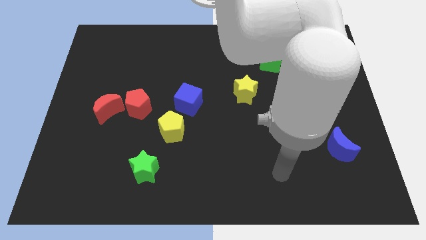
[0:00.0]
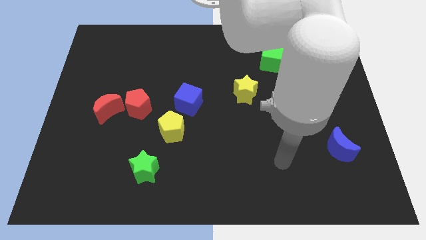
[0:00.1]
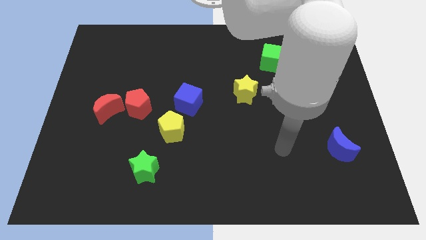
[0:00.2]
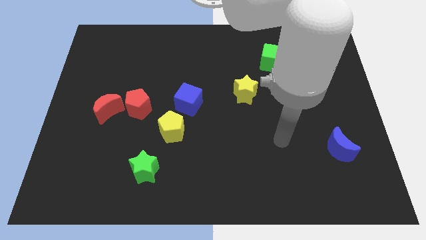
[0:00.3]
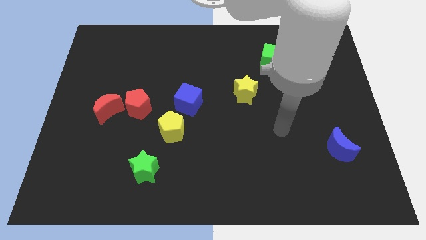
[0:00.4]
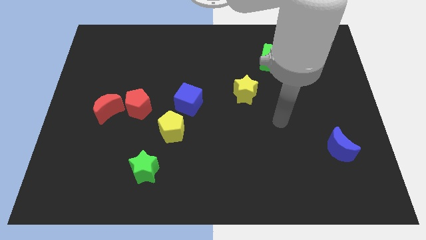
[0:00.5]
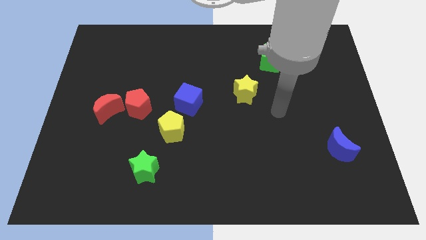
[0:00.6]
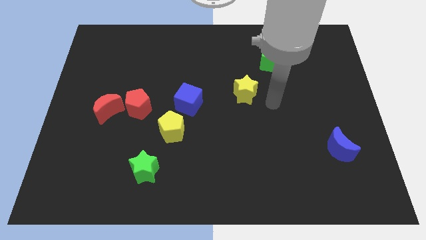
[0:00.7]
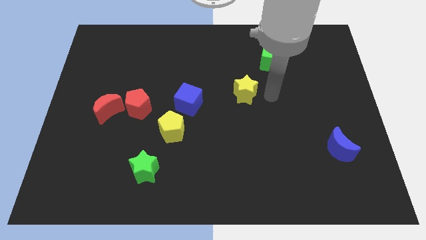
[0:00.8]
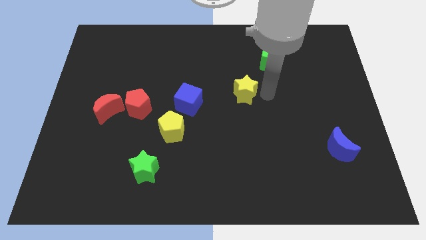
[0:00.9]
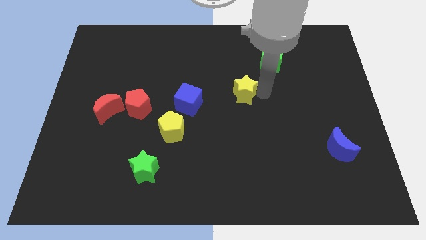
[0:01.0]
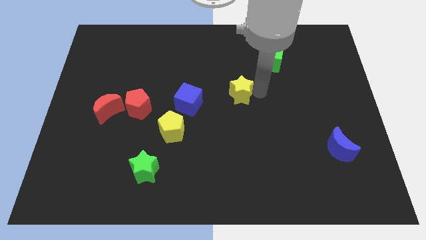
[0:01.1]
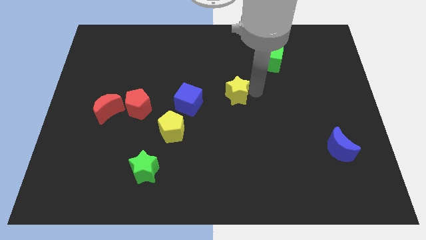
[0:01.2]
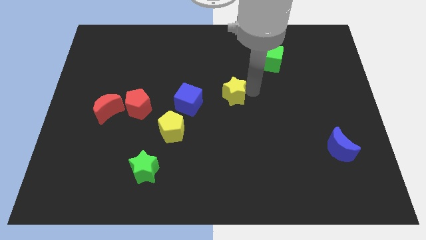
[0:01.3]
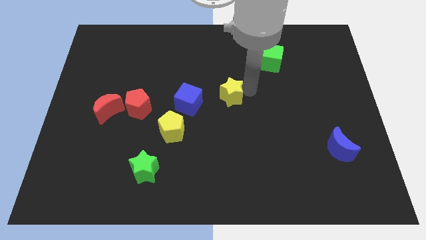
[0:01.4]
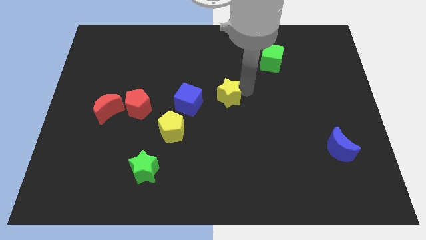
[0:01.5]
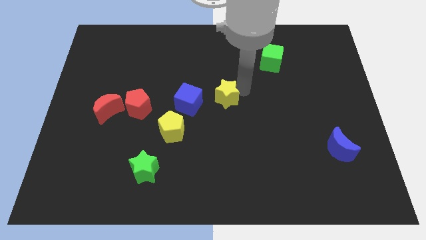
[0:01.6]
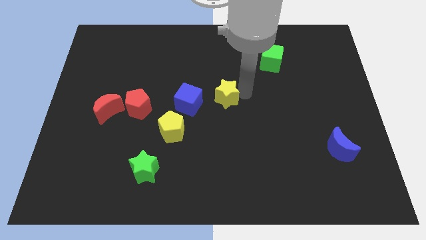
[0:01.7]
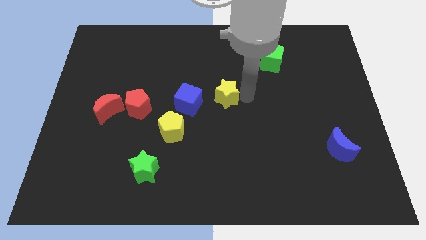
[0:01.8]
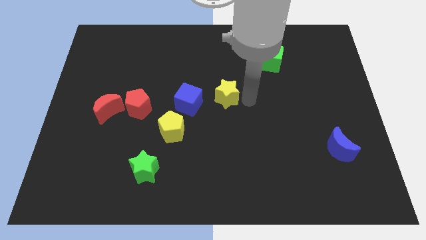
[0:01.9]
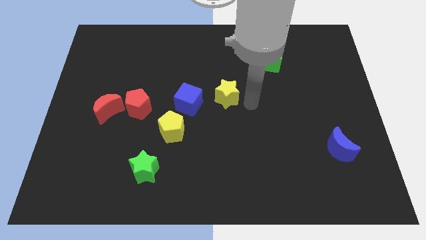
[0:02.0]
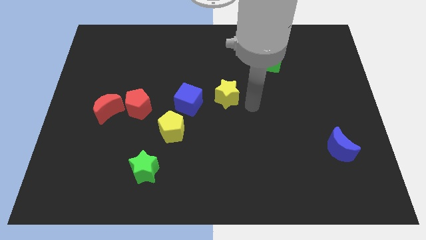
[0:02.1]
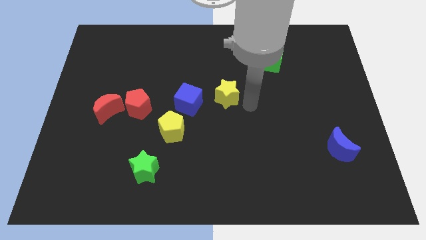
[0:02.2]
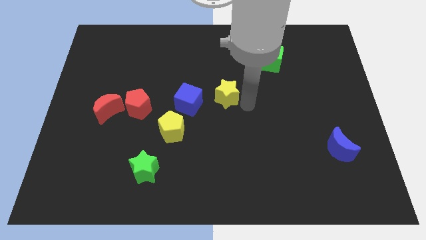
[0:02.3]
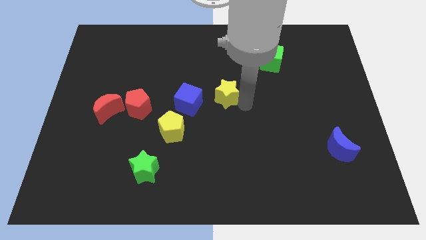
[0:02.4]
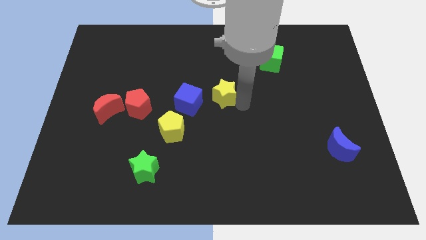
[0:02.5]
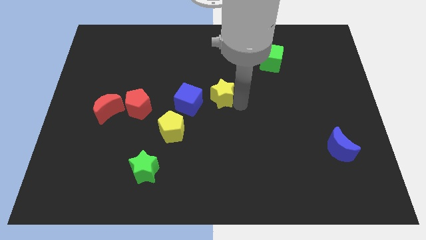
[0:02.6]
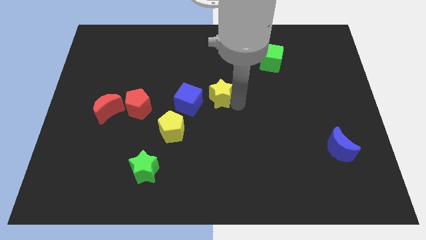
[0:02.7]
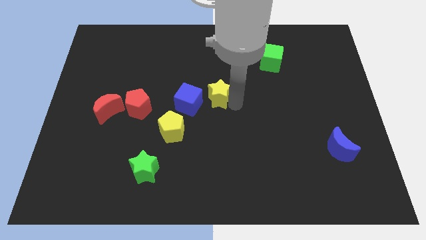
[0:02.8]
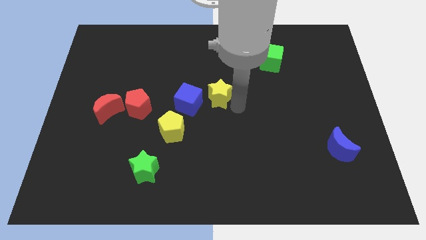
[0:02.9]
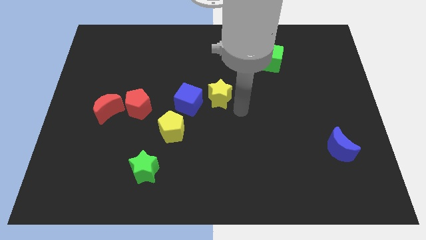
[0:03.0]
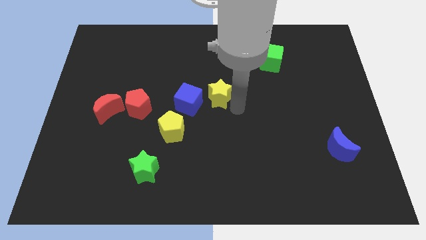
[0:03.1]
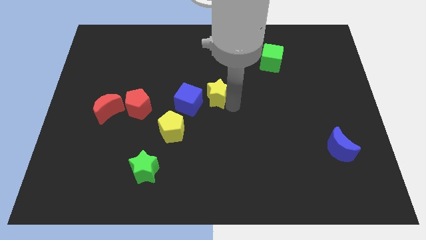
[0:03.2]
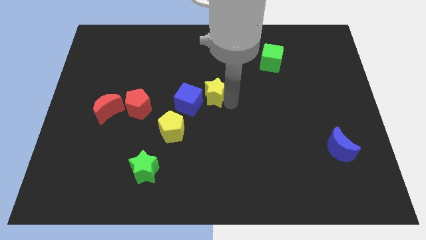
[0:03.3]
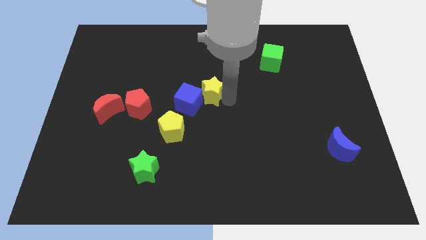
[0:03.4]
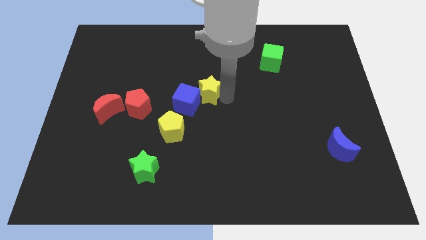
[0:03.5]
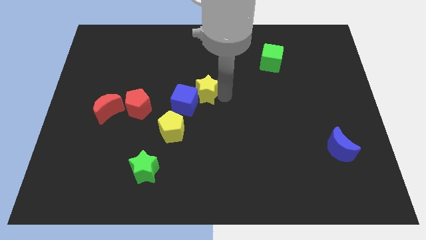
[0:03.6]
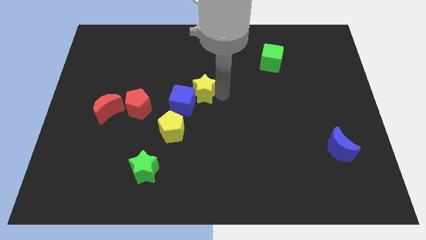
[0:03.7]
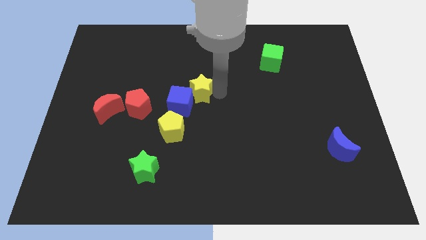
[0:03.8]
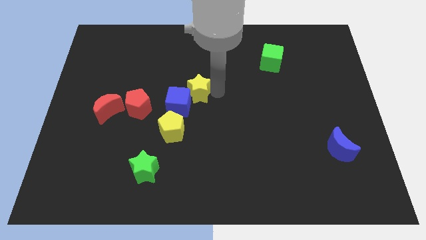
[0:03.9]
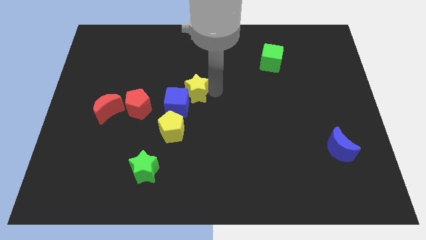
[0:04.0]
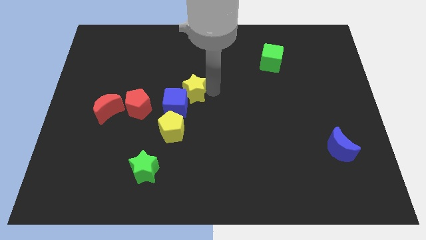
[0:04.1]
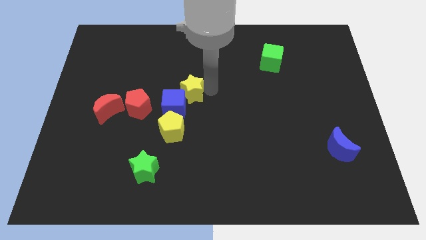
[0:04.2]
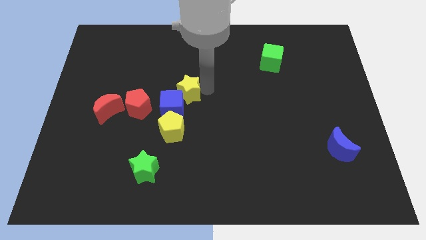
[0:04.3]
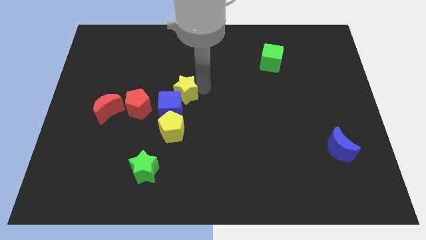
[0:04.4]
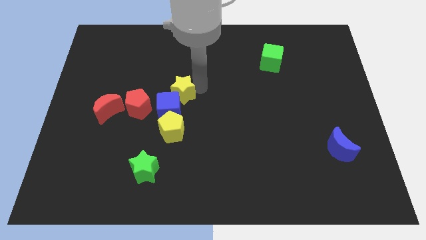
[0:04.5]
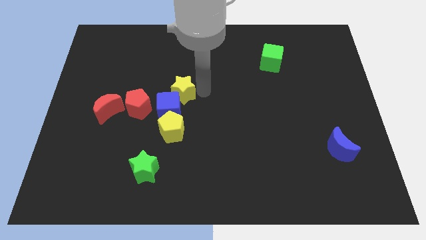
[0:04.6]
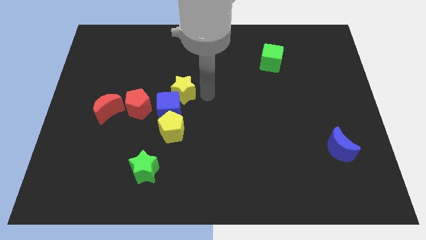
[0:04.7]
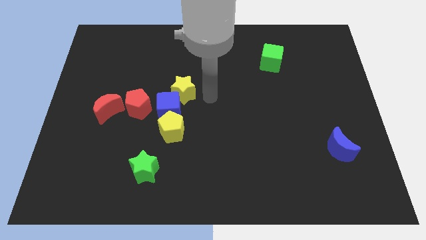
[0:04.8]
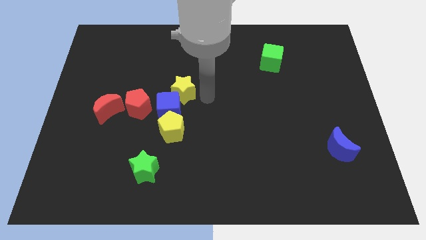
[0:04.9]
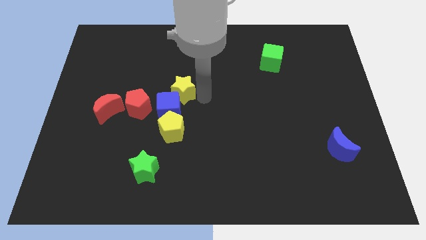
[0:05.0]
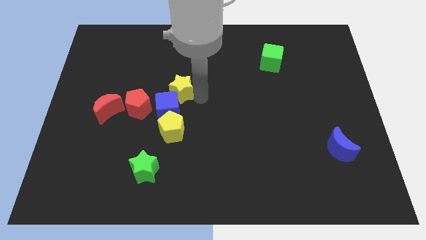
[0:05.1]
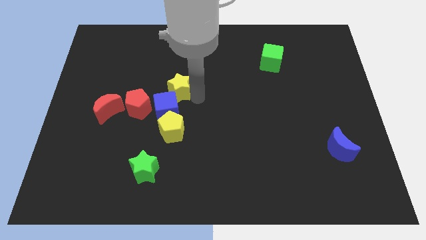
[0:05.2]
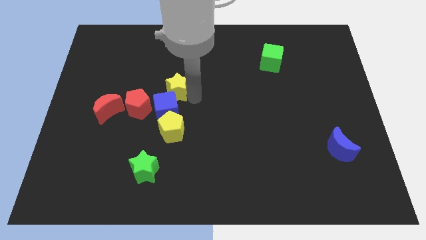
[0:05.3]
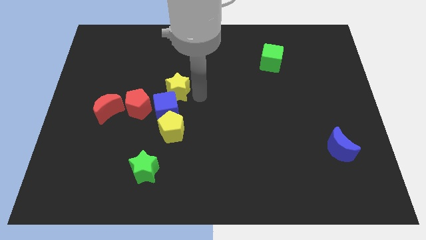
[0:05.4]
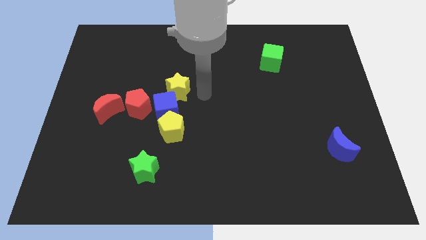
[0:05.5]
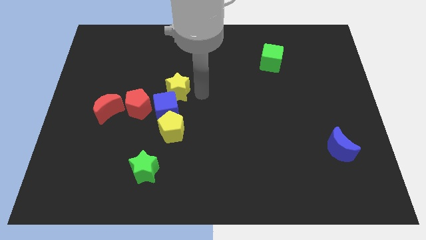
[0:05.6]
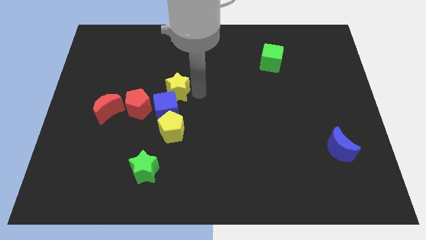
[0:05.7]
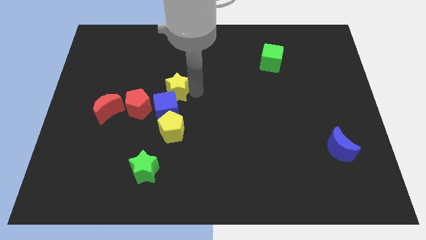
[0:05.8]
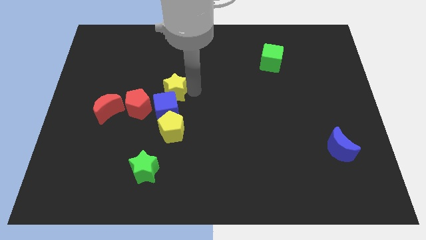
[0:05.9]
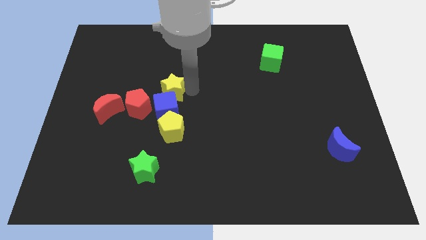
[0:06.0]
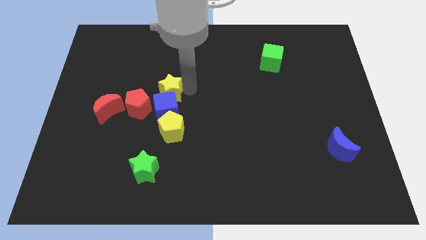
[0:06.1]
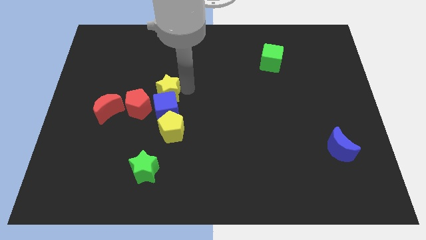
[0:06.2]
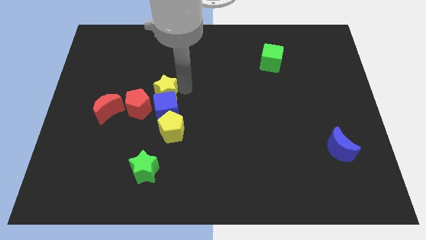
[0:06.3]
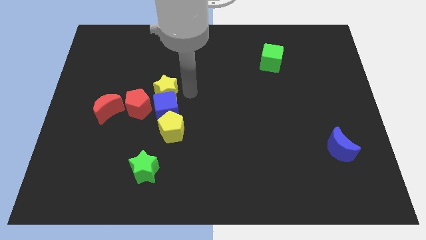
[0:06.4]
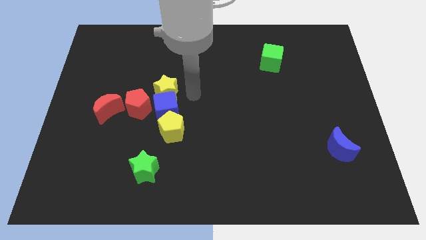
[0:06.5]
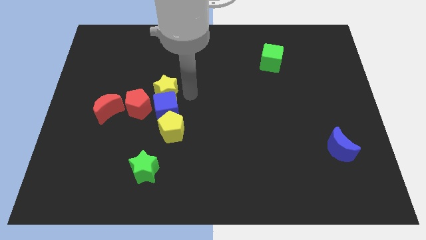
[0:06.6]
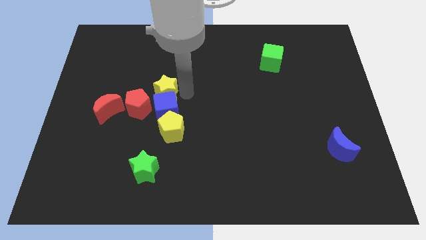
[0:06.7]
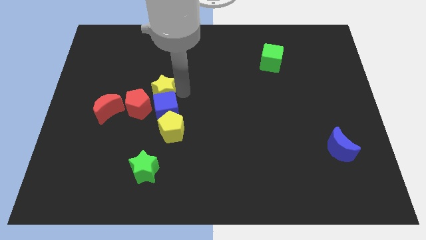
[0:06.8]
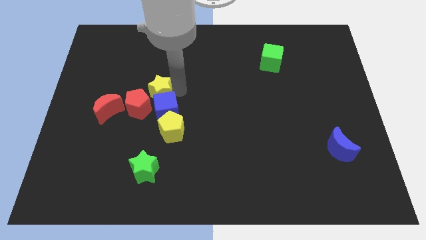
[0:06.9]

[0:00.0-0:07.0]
push the yellow star to the left

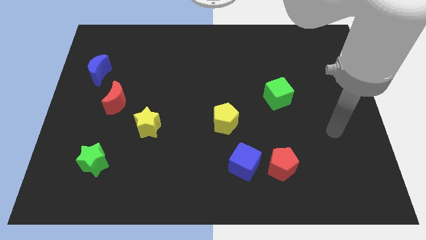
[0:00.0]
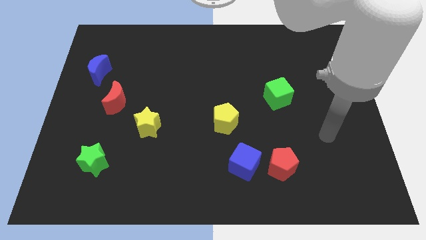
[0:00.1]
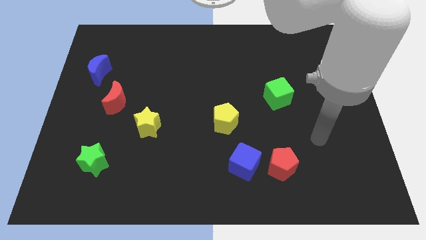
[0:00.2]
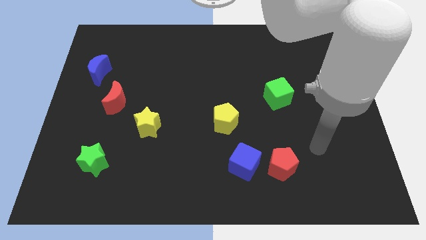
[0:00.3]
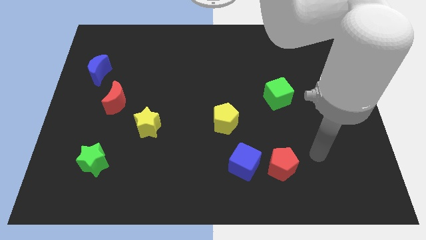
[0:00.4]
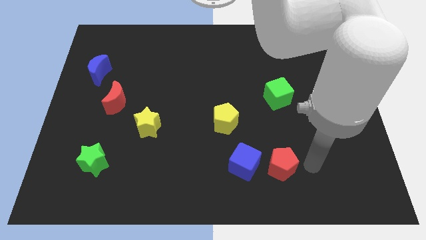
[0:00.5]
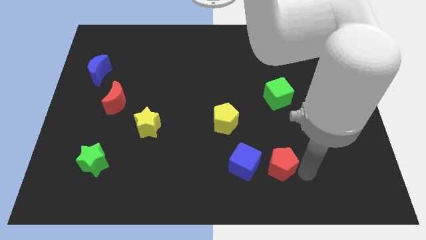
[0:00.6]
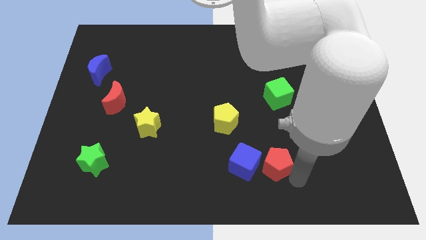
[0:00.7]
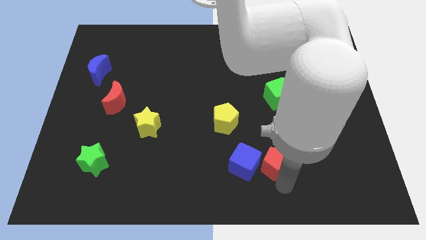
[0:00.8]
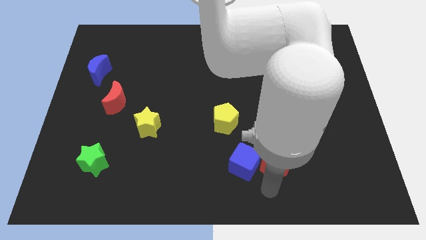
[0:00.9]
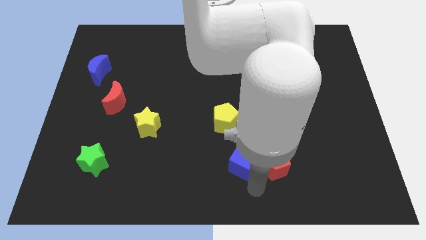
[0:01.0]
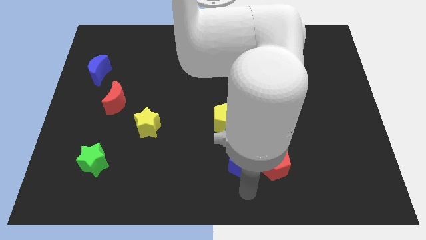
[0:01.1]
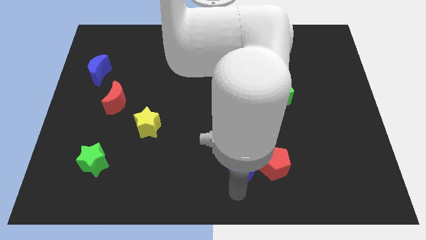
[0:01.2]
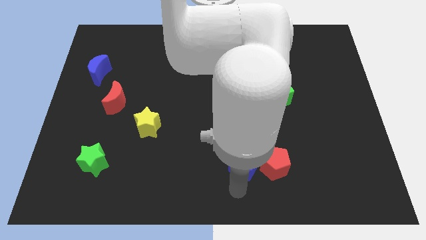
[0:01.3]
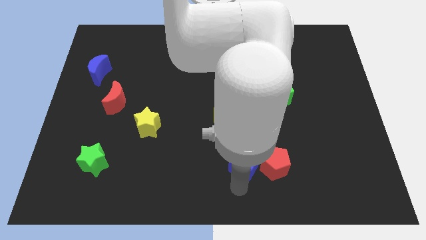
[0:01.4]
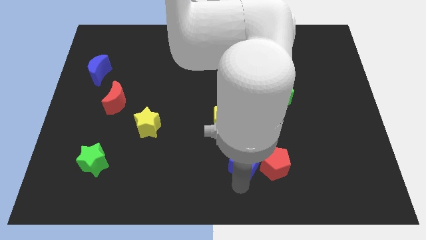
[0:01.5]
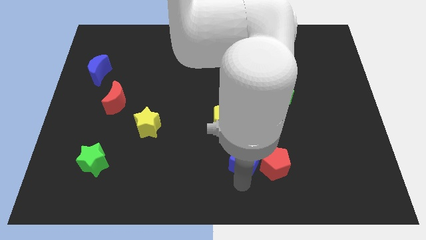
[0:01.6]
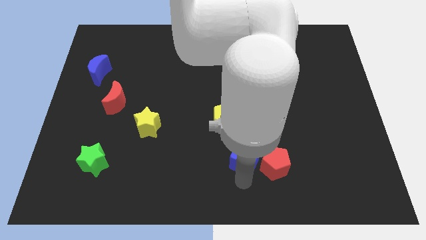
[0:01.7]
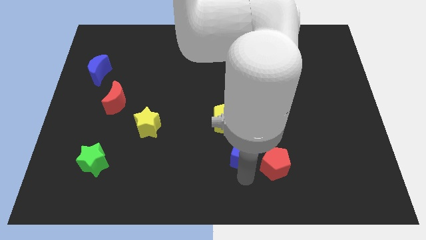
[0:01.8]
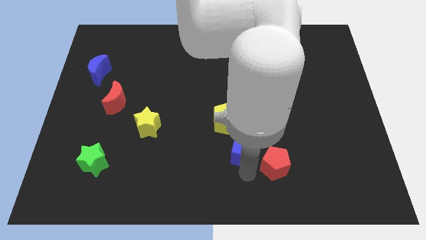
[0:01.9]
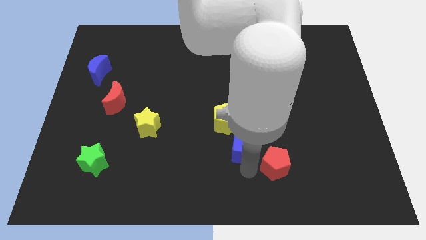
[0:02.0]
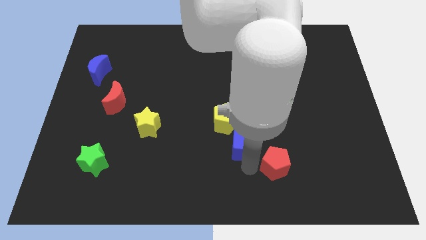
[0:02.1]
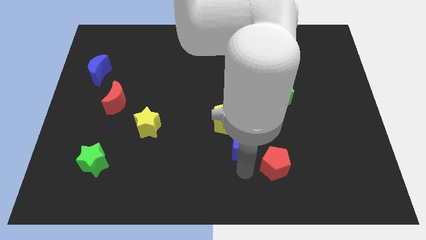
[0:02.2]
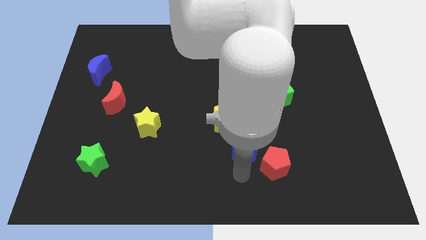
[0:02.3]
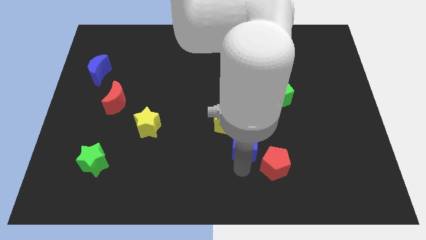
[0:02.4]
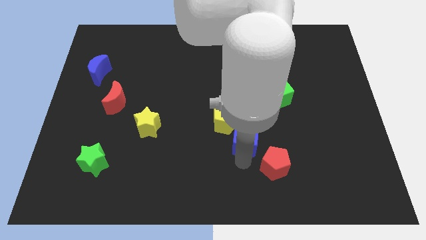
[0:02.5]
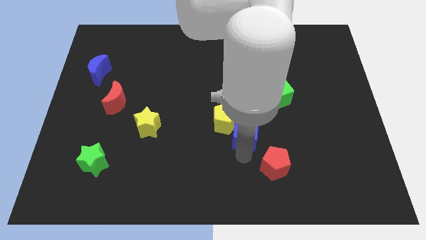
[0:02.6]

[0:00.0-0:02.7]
slightly move the blue cube up
